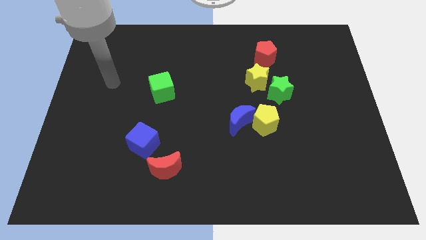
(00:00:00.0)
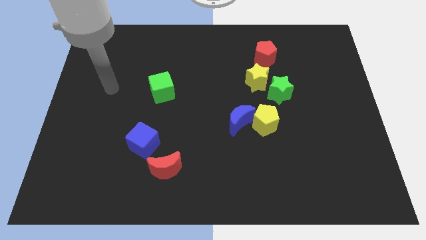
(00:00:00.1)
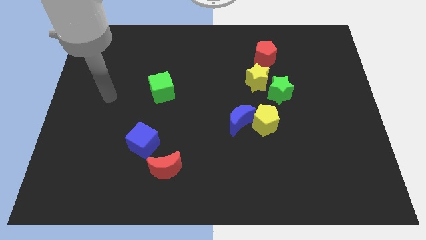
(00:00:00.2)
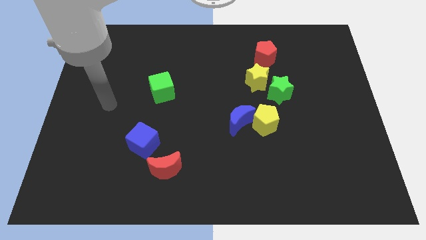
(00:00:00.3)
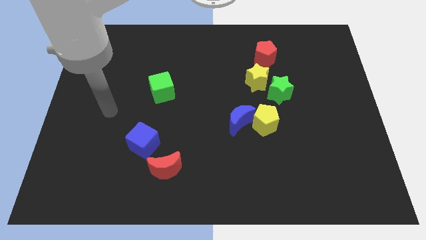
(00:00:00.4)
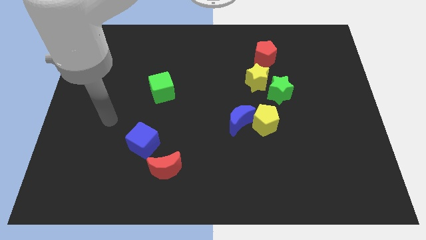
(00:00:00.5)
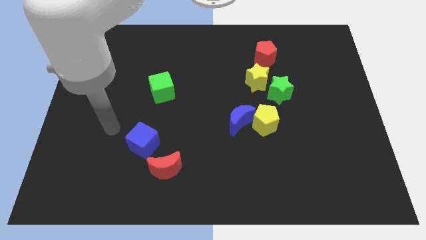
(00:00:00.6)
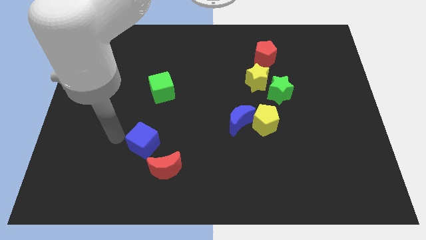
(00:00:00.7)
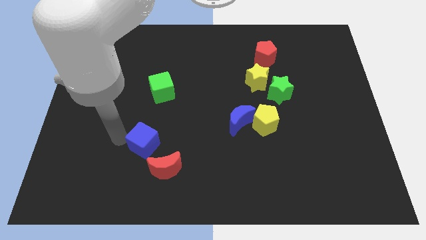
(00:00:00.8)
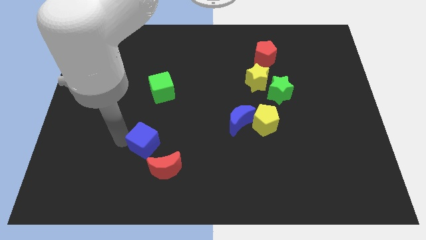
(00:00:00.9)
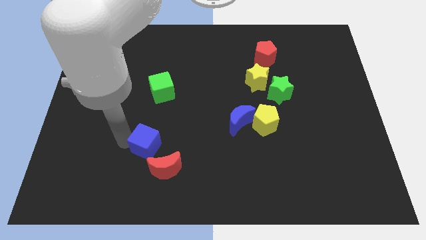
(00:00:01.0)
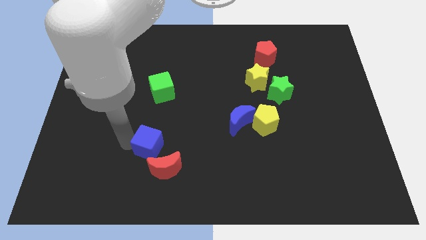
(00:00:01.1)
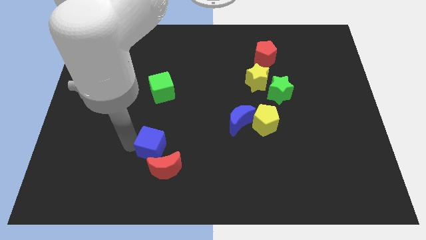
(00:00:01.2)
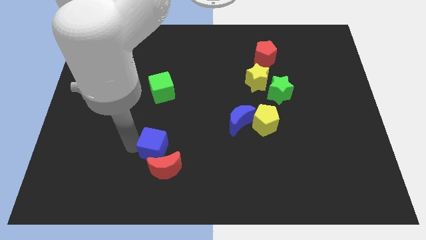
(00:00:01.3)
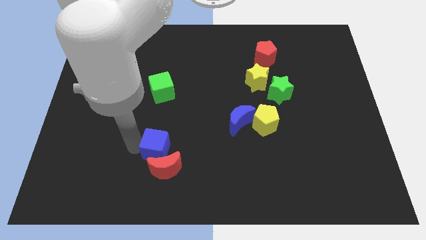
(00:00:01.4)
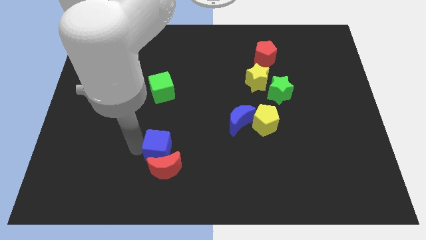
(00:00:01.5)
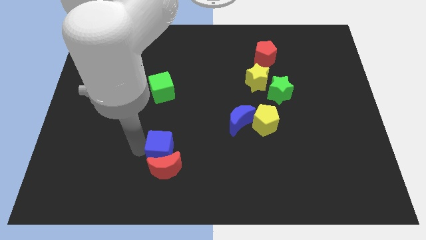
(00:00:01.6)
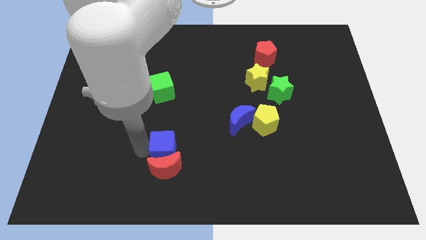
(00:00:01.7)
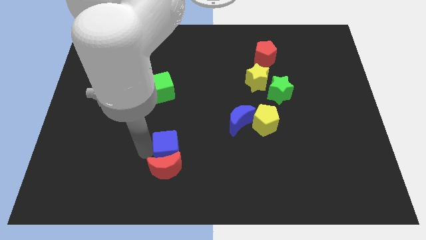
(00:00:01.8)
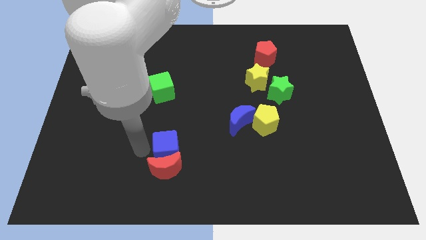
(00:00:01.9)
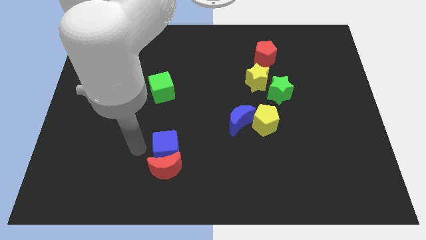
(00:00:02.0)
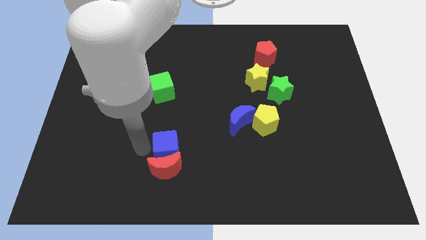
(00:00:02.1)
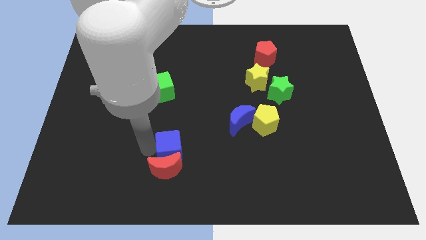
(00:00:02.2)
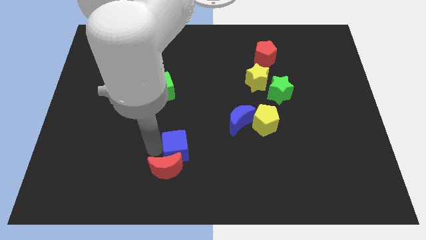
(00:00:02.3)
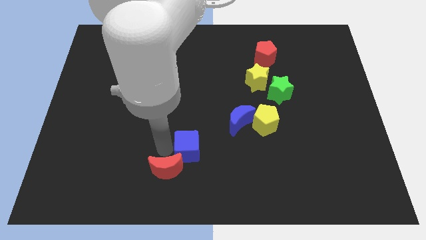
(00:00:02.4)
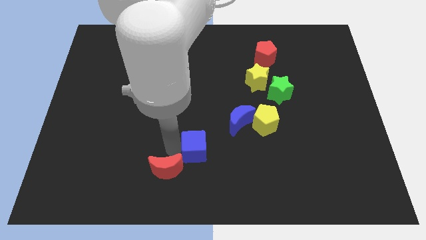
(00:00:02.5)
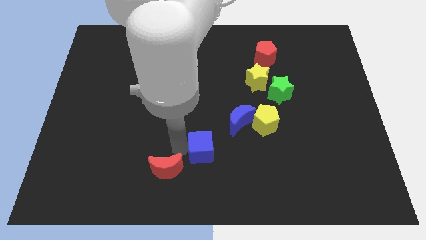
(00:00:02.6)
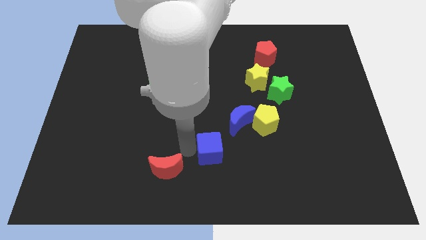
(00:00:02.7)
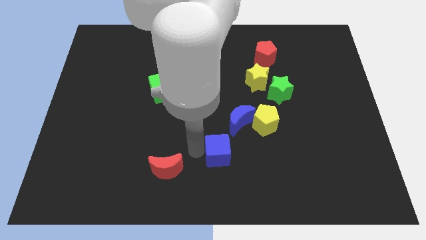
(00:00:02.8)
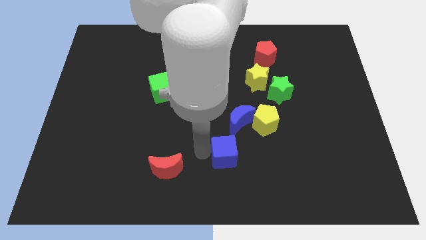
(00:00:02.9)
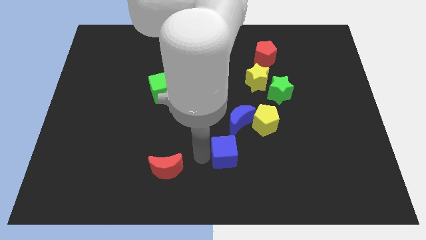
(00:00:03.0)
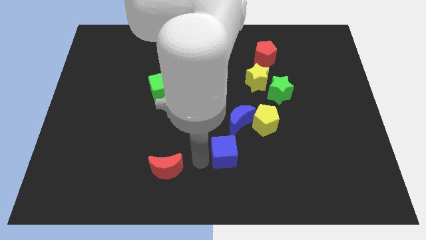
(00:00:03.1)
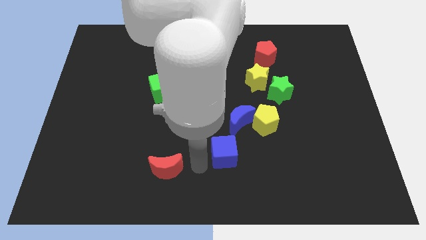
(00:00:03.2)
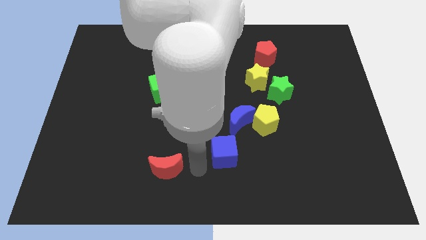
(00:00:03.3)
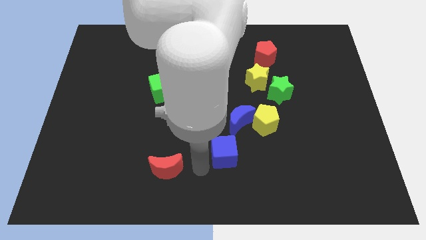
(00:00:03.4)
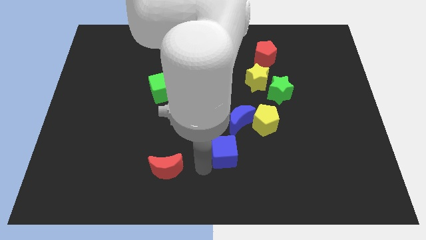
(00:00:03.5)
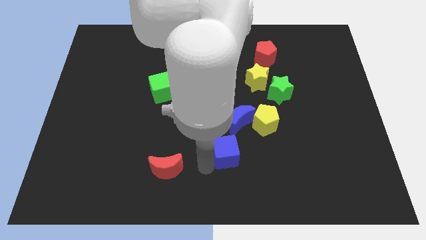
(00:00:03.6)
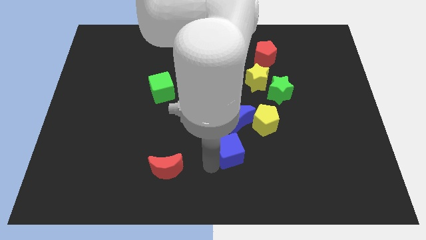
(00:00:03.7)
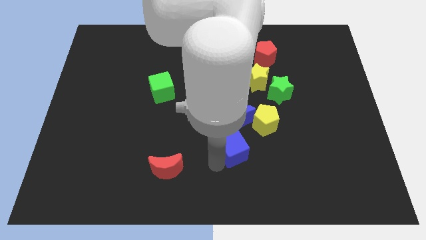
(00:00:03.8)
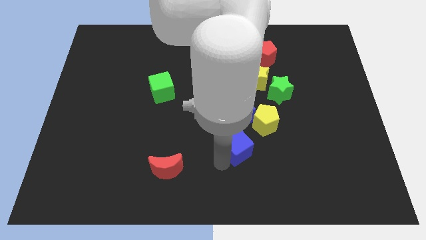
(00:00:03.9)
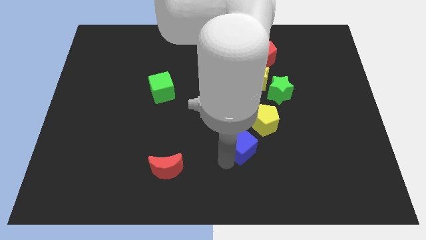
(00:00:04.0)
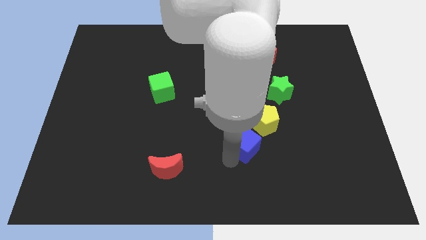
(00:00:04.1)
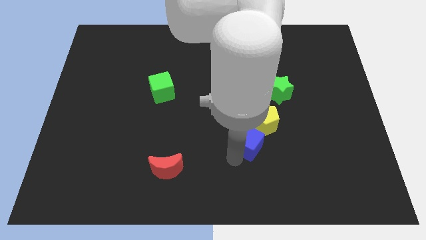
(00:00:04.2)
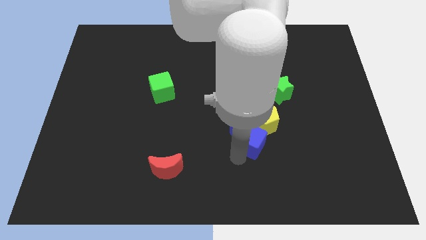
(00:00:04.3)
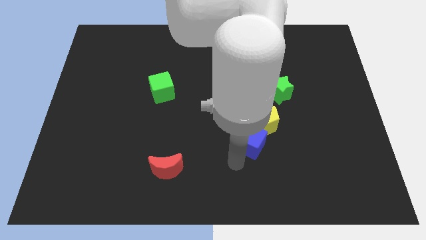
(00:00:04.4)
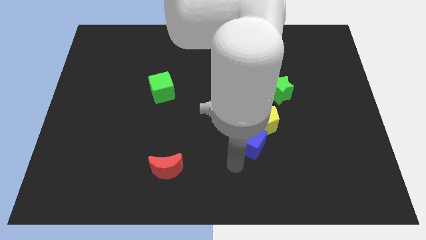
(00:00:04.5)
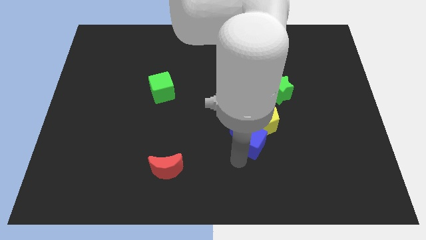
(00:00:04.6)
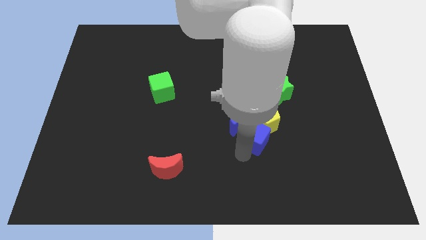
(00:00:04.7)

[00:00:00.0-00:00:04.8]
move the blue cube to the yellow pentagon

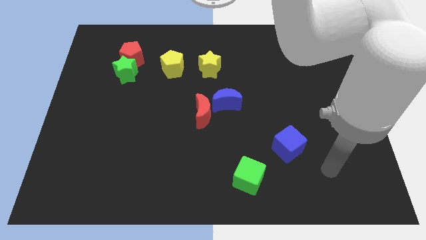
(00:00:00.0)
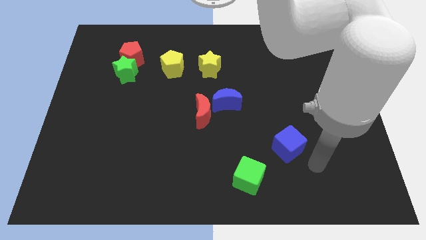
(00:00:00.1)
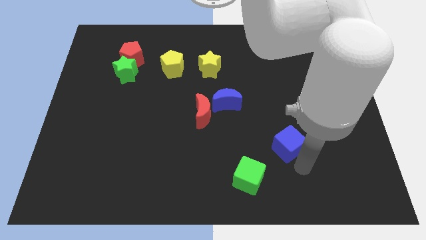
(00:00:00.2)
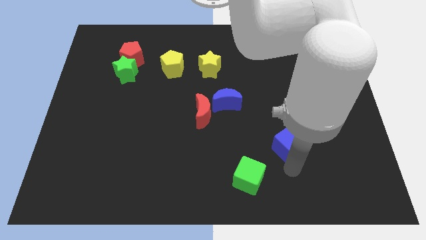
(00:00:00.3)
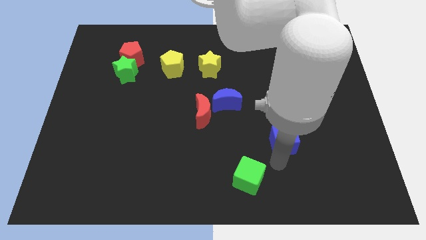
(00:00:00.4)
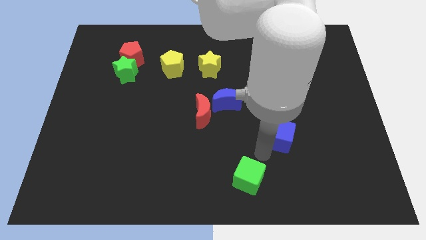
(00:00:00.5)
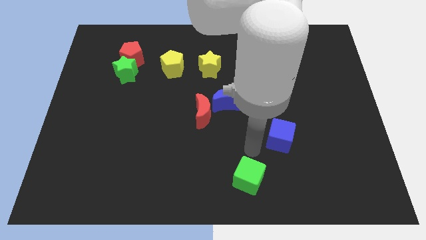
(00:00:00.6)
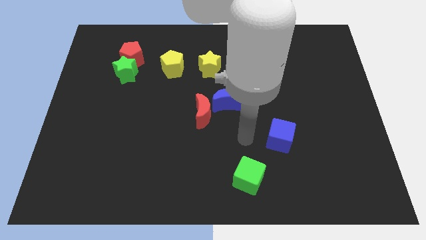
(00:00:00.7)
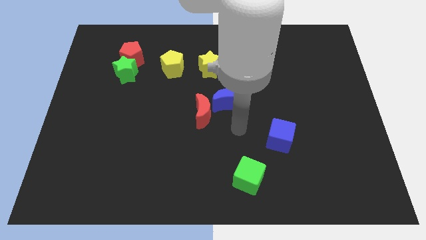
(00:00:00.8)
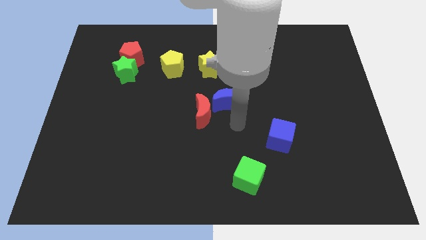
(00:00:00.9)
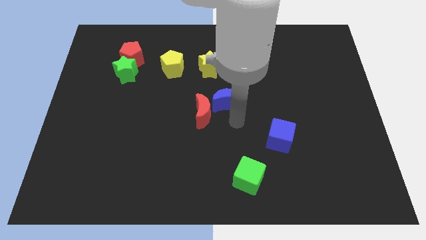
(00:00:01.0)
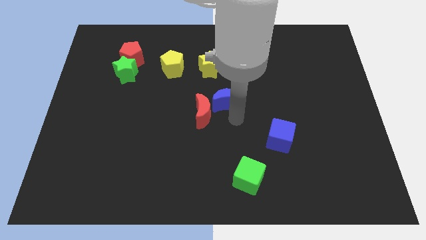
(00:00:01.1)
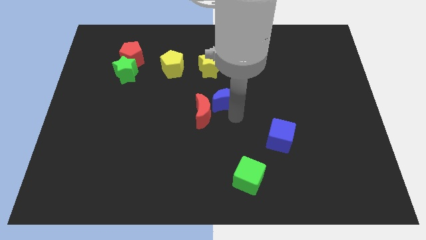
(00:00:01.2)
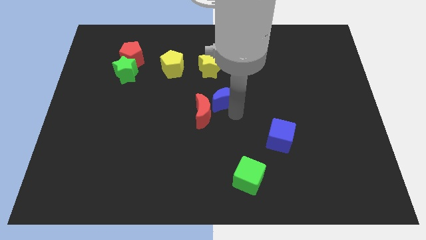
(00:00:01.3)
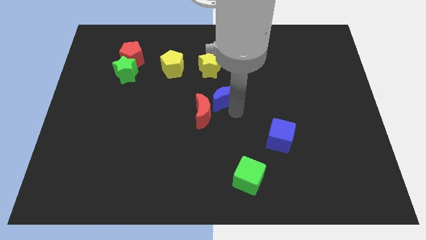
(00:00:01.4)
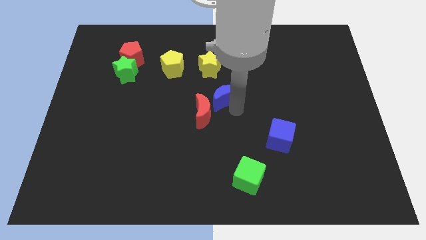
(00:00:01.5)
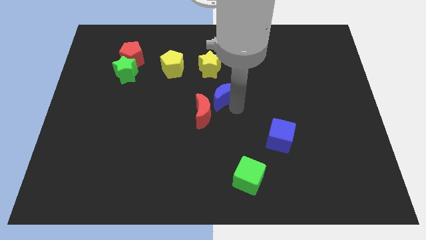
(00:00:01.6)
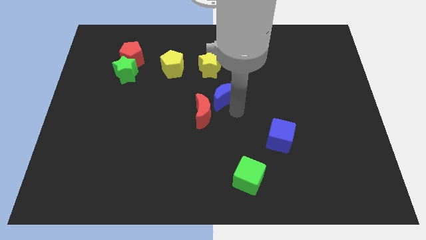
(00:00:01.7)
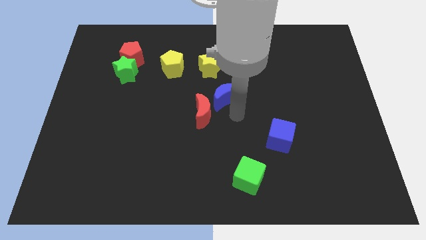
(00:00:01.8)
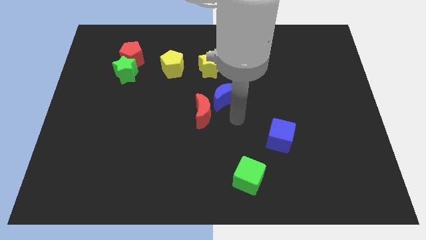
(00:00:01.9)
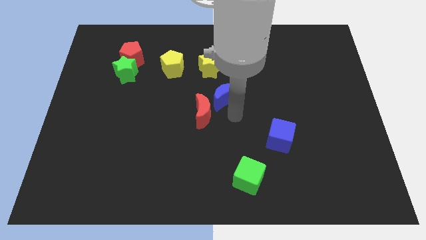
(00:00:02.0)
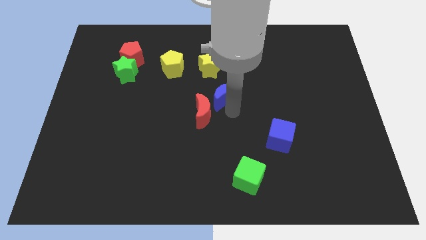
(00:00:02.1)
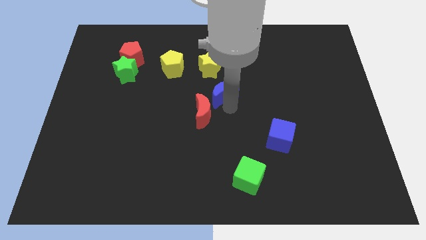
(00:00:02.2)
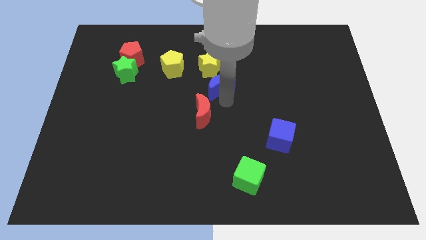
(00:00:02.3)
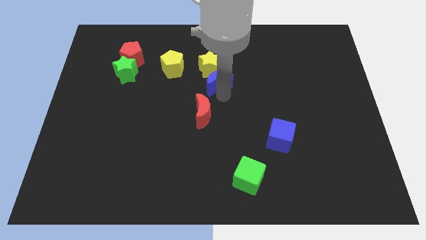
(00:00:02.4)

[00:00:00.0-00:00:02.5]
push the blue moon towards the yellow star

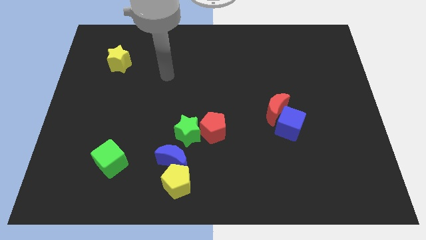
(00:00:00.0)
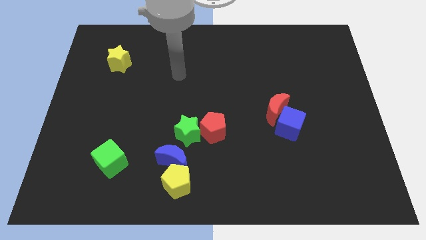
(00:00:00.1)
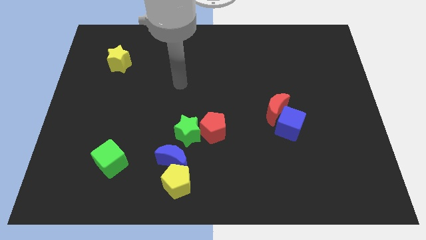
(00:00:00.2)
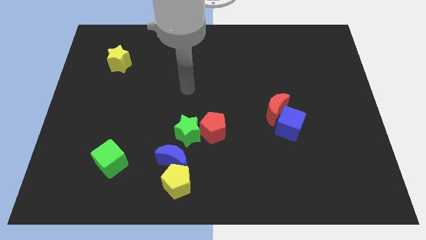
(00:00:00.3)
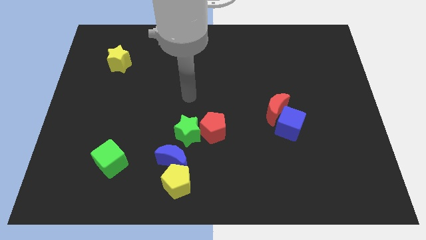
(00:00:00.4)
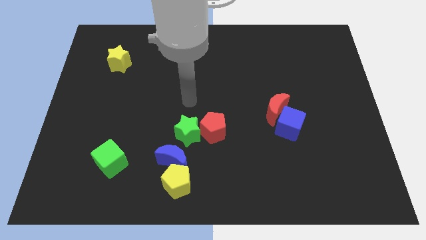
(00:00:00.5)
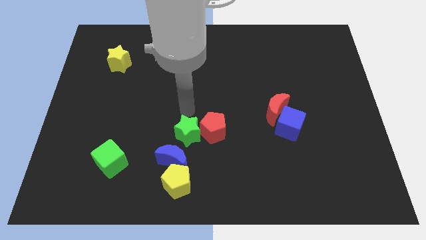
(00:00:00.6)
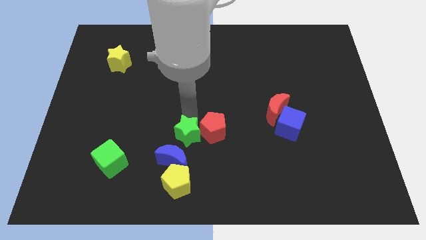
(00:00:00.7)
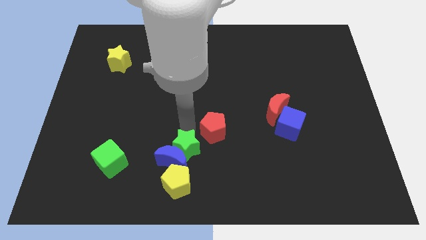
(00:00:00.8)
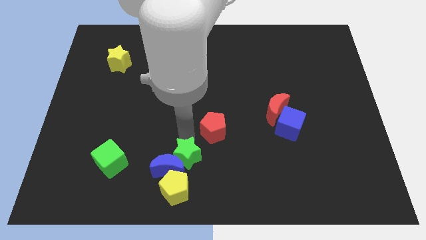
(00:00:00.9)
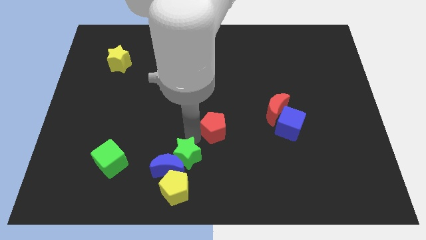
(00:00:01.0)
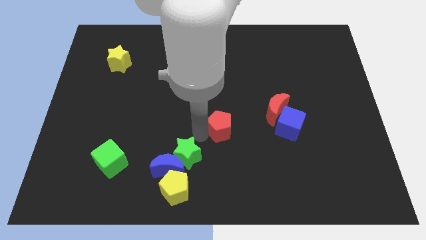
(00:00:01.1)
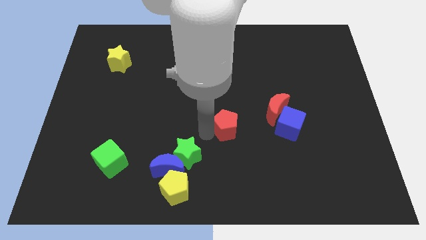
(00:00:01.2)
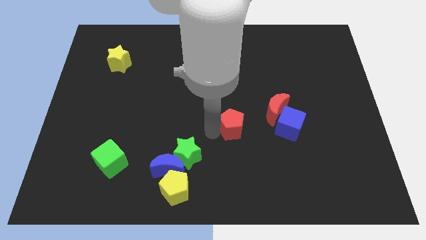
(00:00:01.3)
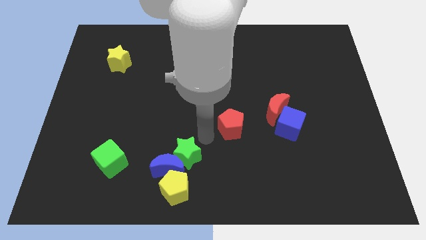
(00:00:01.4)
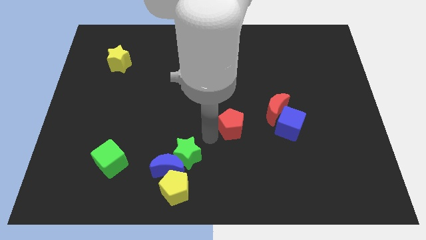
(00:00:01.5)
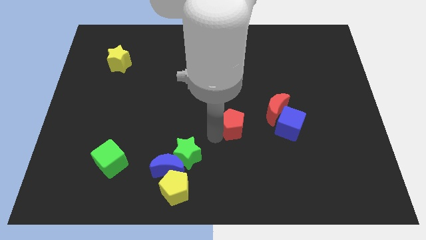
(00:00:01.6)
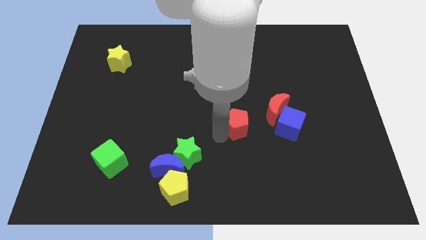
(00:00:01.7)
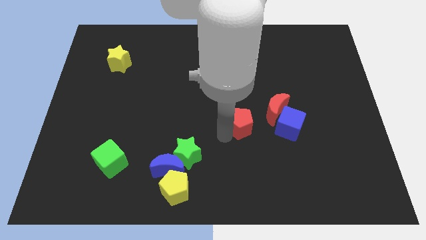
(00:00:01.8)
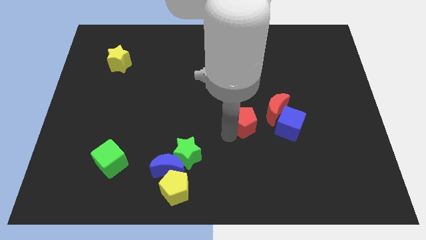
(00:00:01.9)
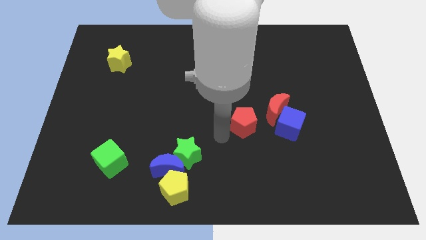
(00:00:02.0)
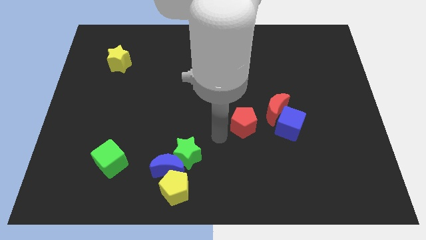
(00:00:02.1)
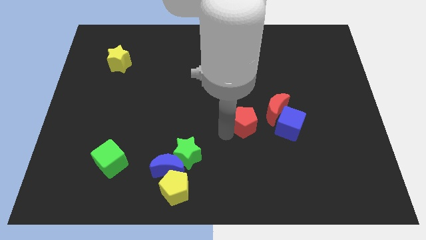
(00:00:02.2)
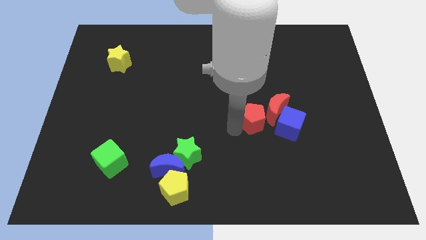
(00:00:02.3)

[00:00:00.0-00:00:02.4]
move the red pentagon to the red moon
